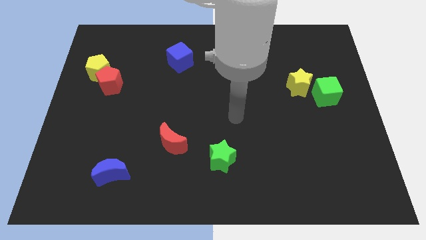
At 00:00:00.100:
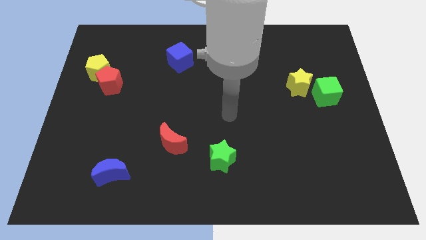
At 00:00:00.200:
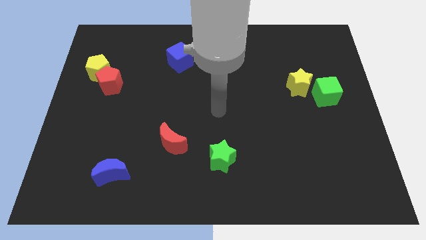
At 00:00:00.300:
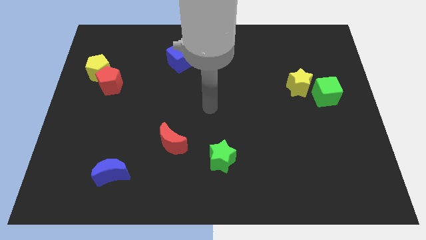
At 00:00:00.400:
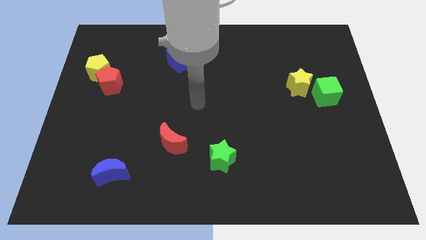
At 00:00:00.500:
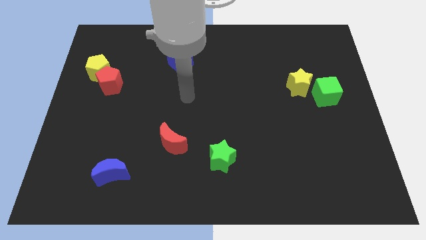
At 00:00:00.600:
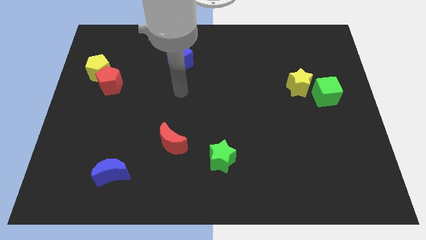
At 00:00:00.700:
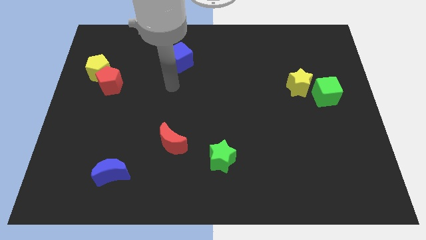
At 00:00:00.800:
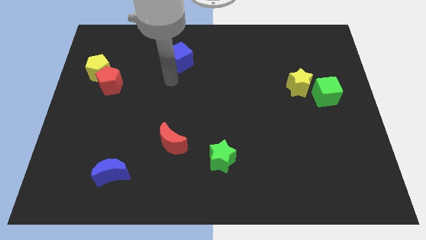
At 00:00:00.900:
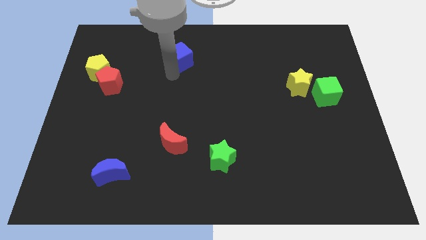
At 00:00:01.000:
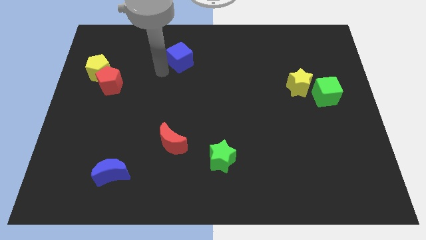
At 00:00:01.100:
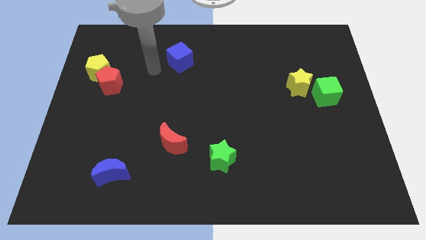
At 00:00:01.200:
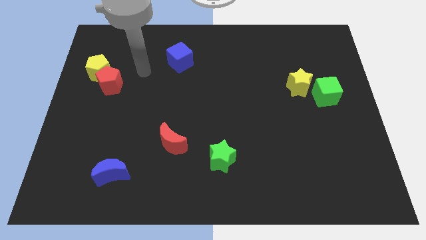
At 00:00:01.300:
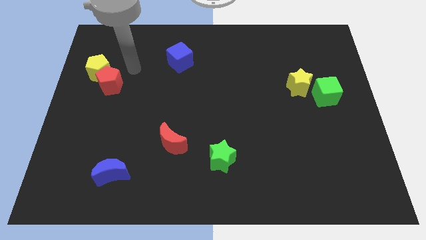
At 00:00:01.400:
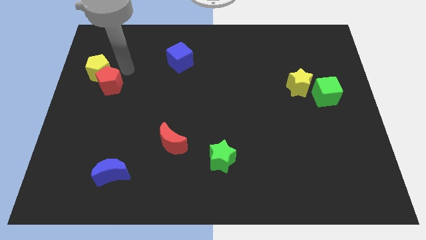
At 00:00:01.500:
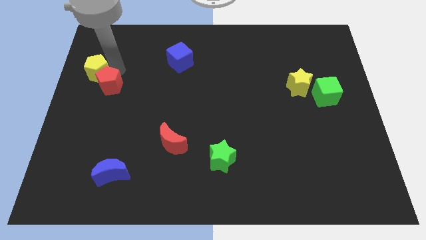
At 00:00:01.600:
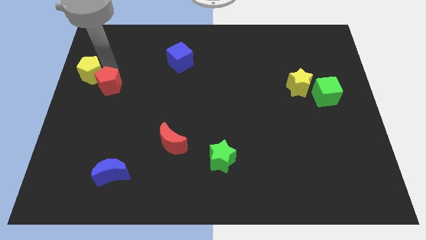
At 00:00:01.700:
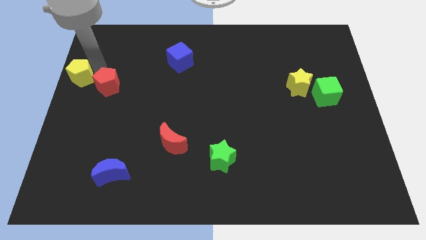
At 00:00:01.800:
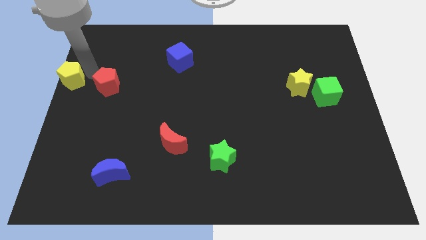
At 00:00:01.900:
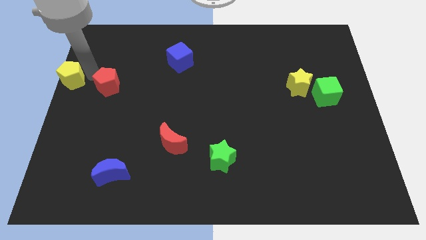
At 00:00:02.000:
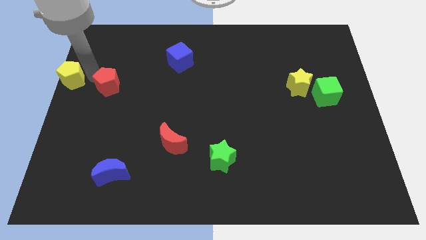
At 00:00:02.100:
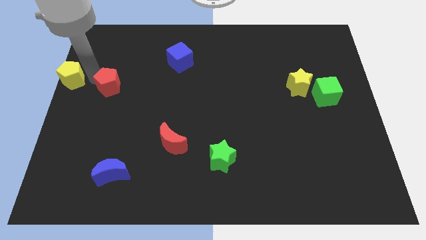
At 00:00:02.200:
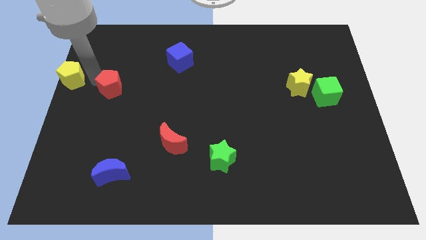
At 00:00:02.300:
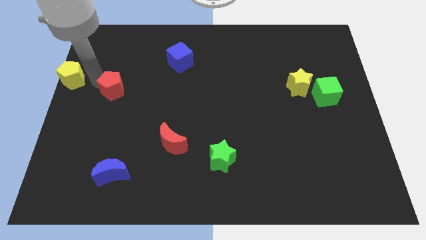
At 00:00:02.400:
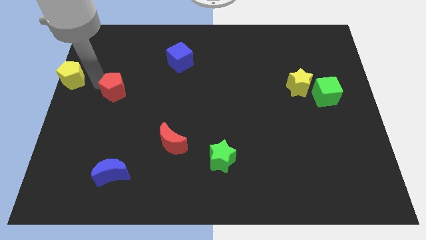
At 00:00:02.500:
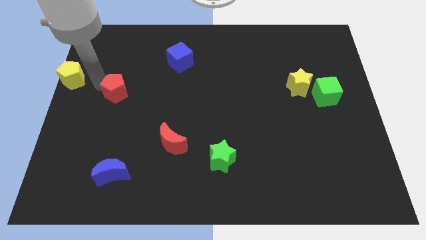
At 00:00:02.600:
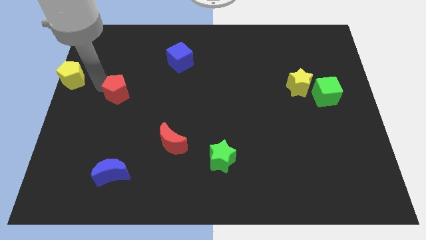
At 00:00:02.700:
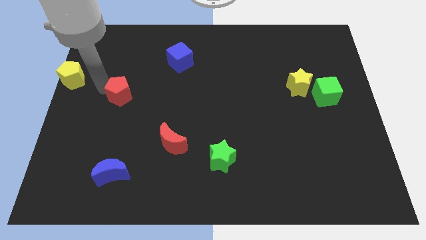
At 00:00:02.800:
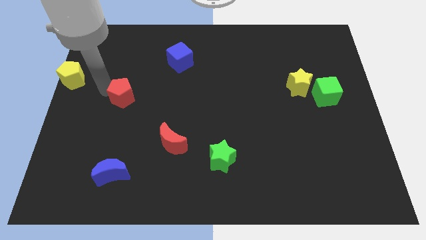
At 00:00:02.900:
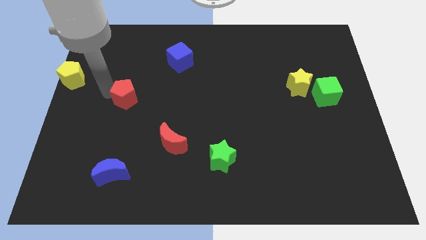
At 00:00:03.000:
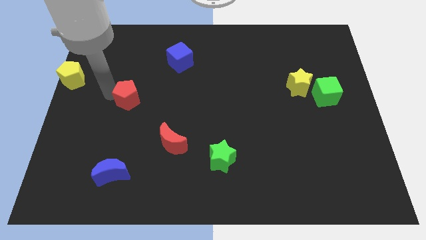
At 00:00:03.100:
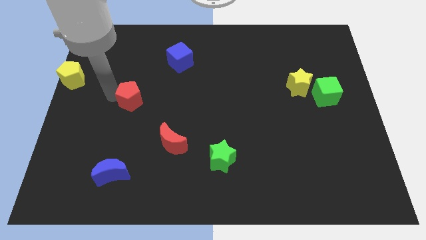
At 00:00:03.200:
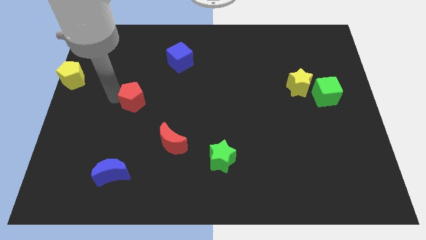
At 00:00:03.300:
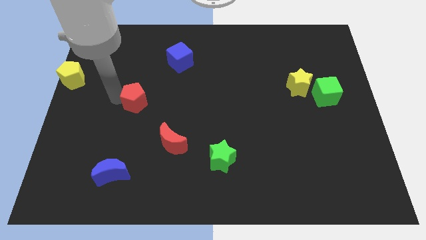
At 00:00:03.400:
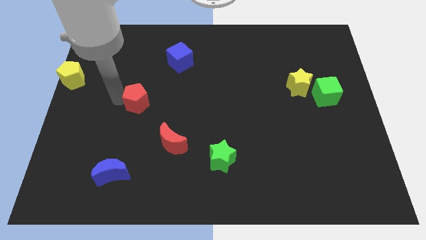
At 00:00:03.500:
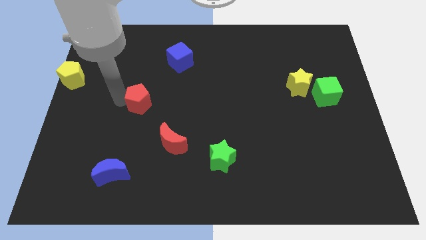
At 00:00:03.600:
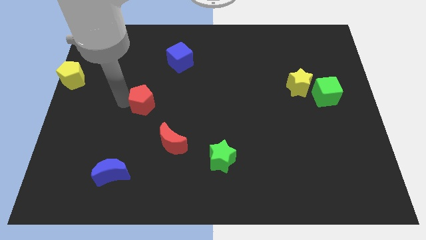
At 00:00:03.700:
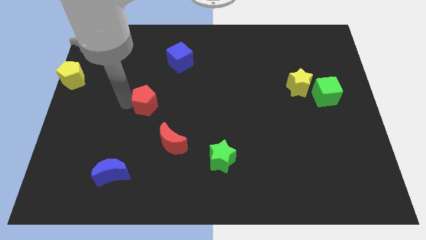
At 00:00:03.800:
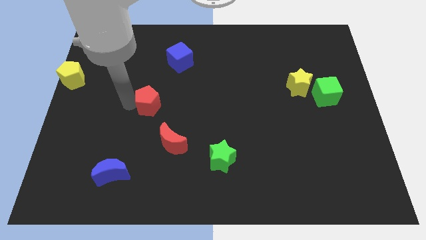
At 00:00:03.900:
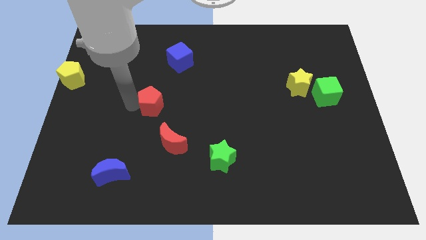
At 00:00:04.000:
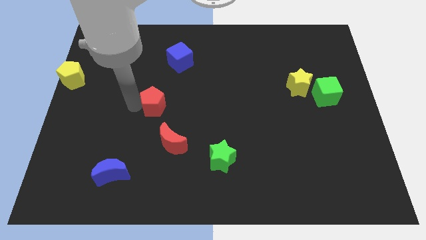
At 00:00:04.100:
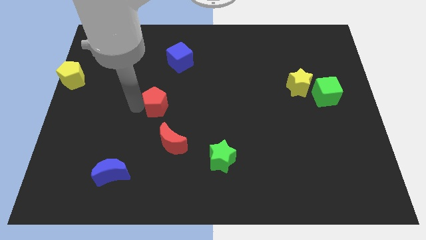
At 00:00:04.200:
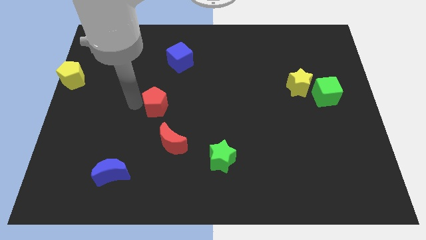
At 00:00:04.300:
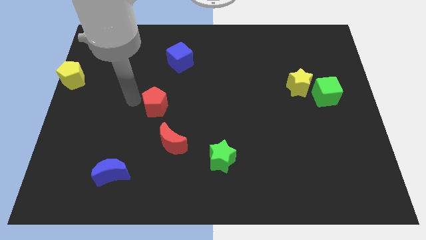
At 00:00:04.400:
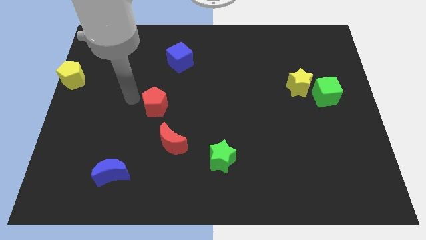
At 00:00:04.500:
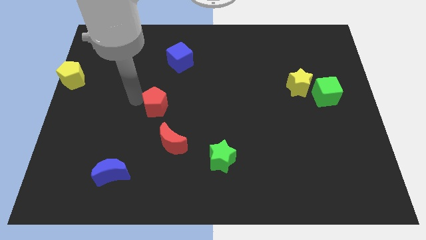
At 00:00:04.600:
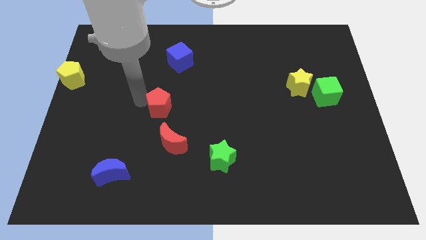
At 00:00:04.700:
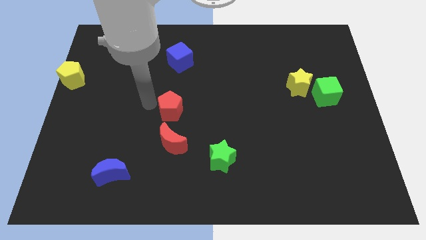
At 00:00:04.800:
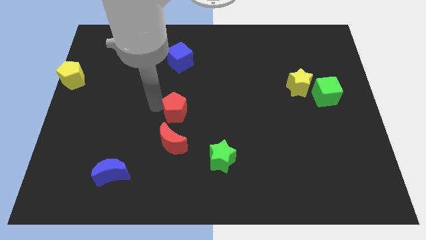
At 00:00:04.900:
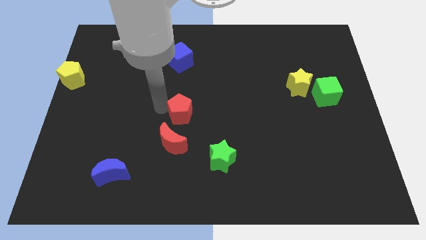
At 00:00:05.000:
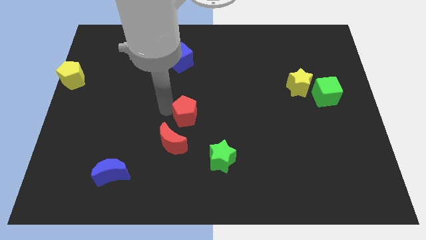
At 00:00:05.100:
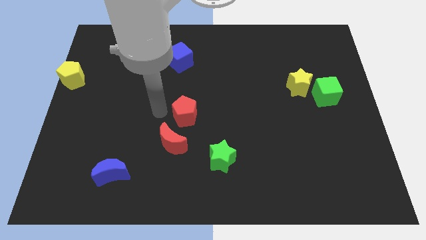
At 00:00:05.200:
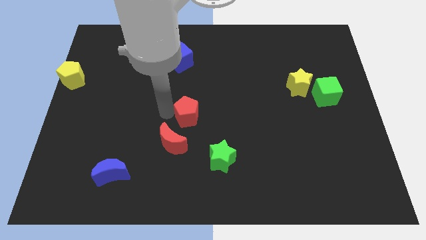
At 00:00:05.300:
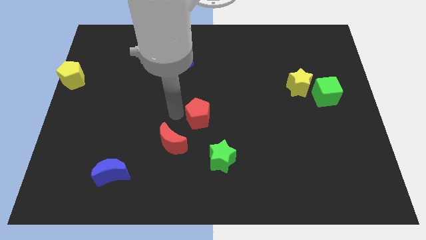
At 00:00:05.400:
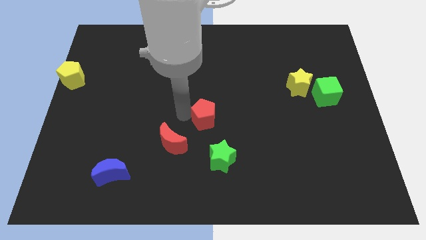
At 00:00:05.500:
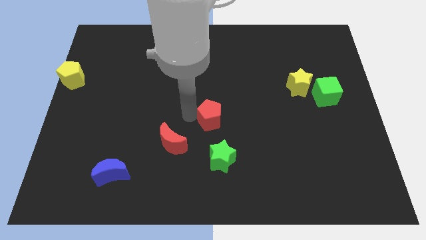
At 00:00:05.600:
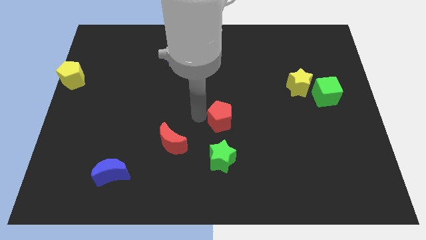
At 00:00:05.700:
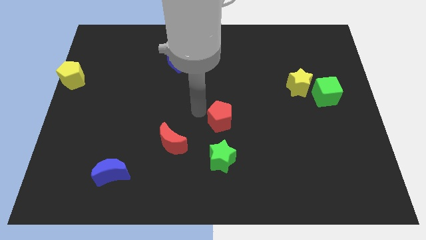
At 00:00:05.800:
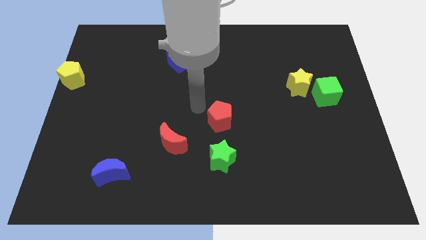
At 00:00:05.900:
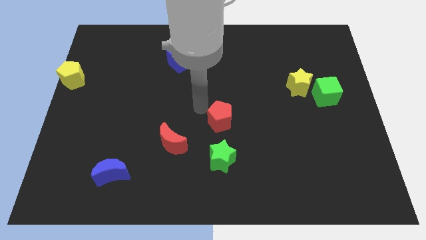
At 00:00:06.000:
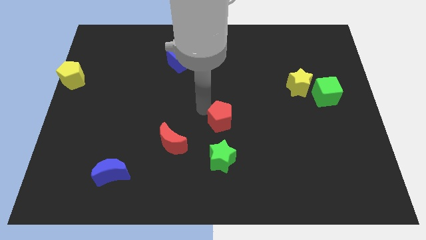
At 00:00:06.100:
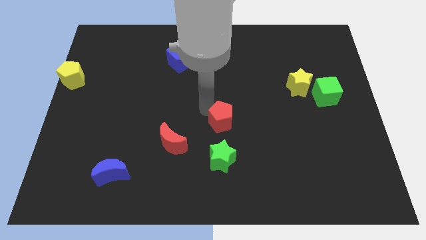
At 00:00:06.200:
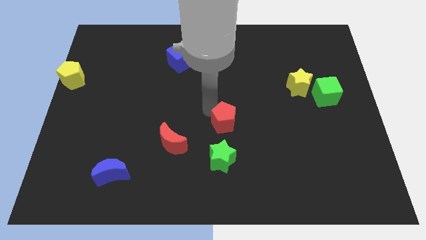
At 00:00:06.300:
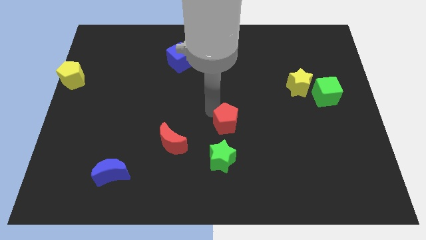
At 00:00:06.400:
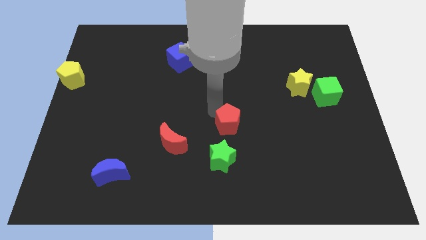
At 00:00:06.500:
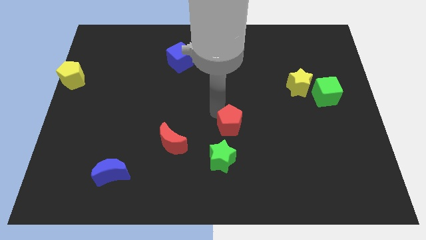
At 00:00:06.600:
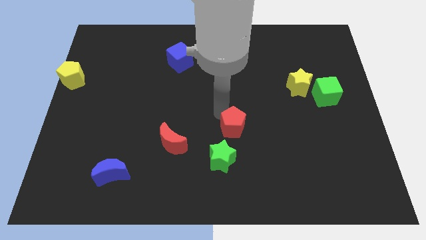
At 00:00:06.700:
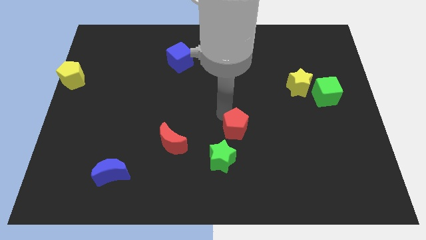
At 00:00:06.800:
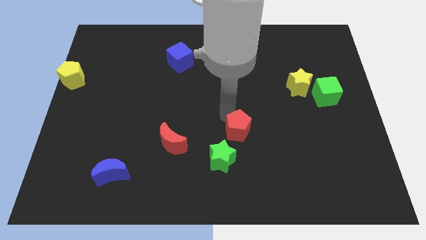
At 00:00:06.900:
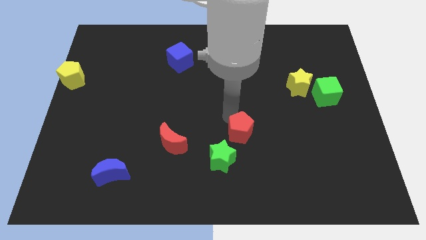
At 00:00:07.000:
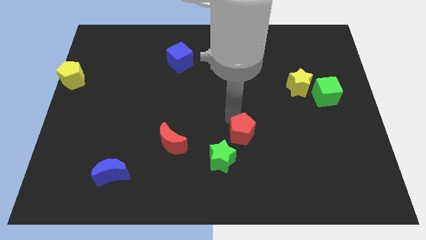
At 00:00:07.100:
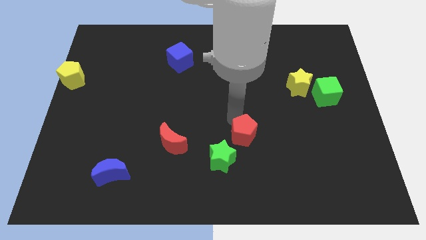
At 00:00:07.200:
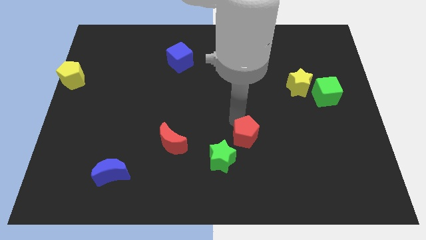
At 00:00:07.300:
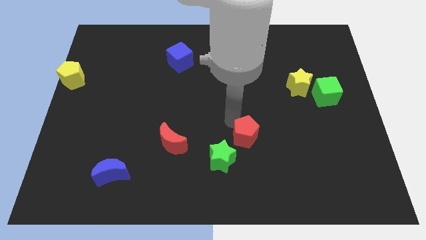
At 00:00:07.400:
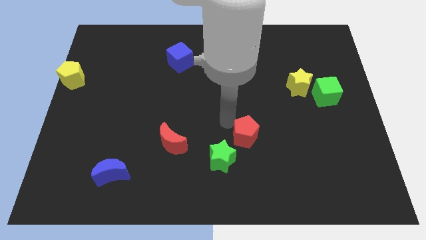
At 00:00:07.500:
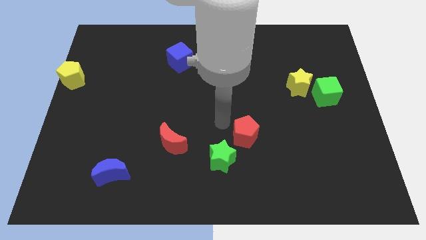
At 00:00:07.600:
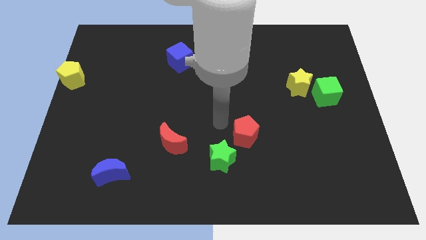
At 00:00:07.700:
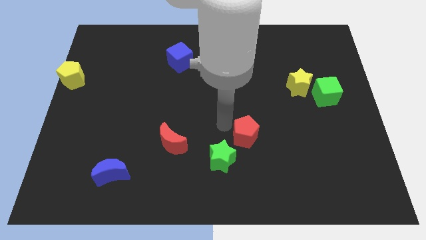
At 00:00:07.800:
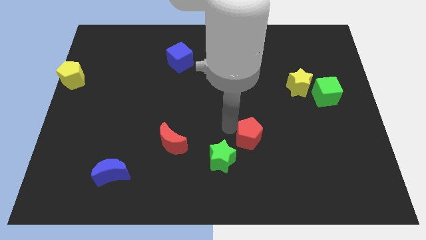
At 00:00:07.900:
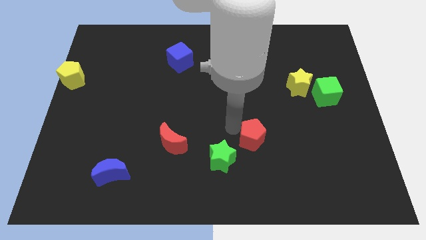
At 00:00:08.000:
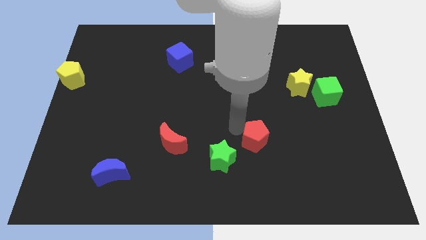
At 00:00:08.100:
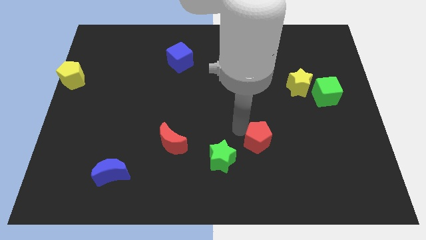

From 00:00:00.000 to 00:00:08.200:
move the red pentagon to the right side of the green star
